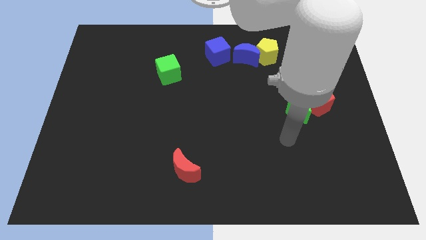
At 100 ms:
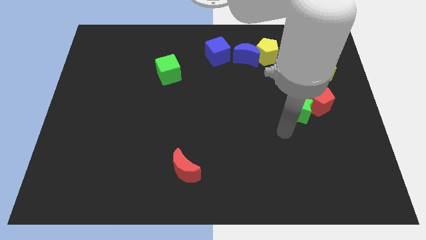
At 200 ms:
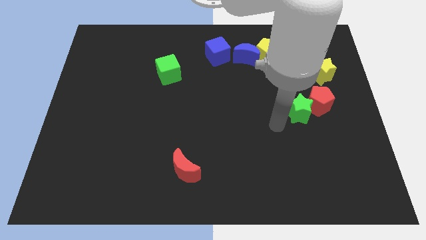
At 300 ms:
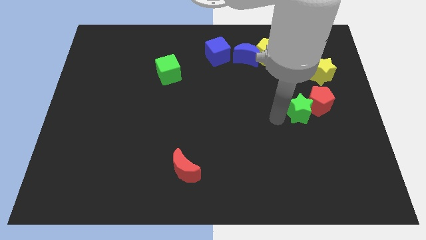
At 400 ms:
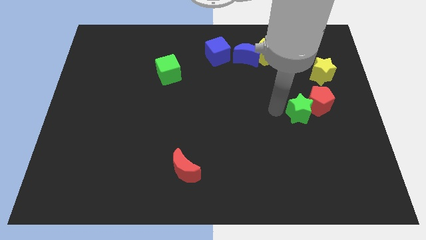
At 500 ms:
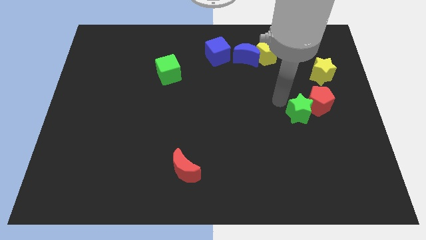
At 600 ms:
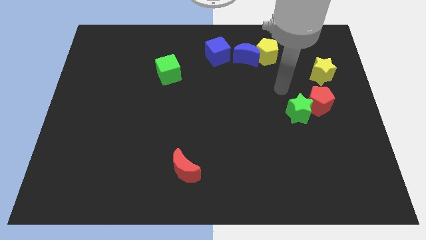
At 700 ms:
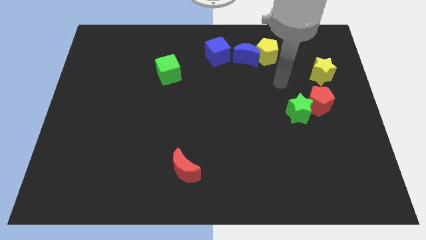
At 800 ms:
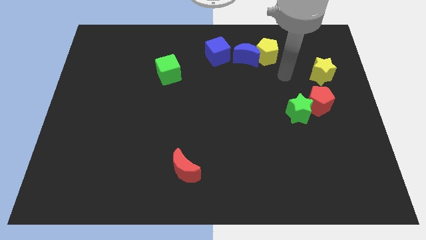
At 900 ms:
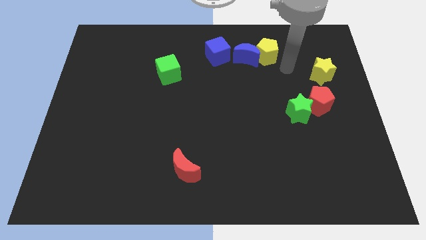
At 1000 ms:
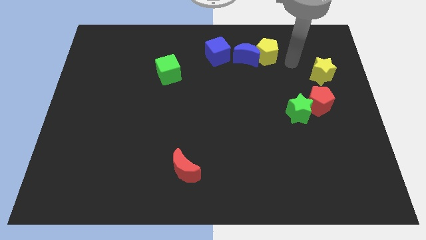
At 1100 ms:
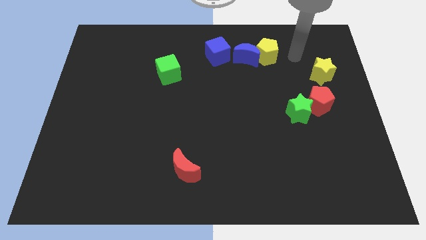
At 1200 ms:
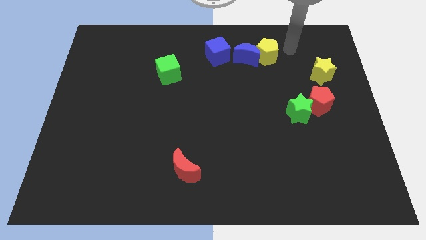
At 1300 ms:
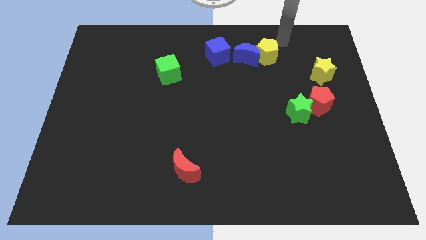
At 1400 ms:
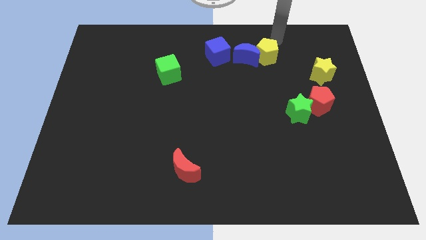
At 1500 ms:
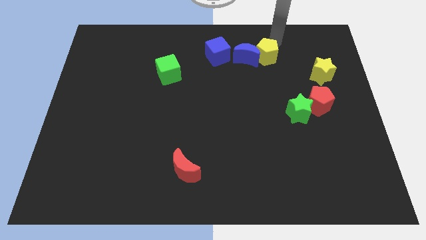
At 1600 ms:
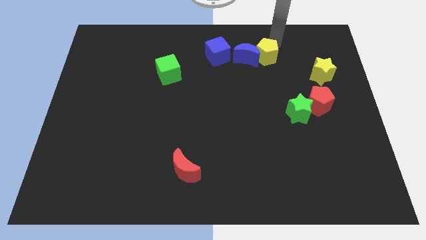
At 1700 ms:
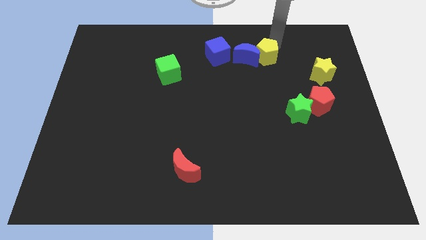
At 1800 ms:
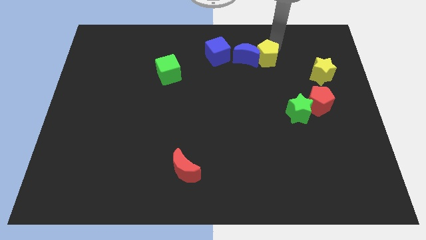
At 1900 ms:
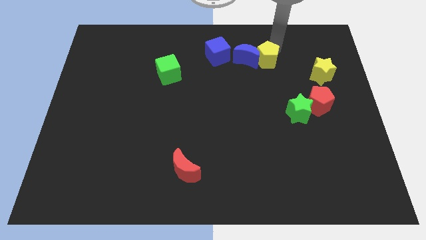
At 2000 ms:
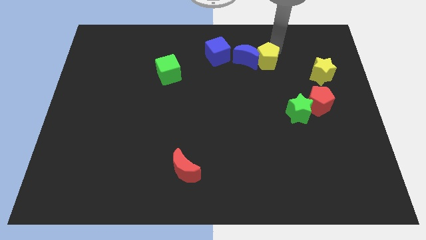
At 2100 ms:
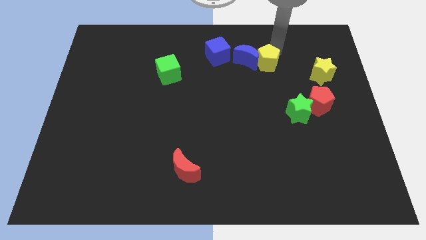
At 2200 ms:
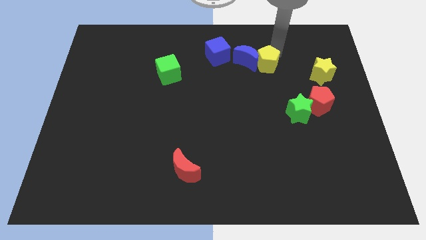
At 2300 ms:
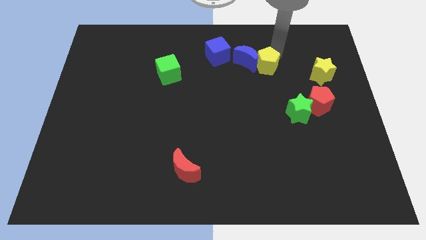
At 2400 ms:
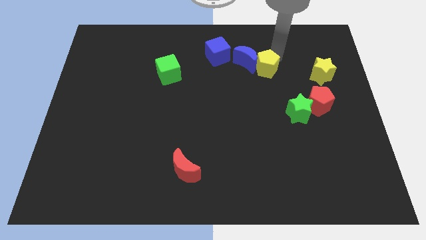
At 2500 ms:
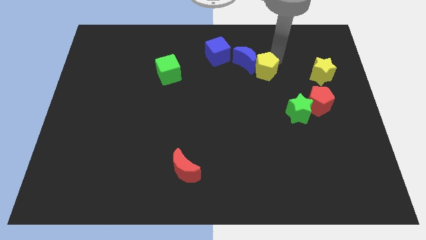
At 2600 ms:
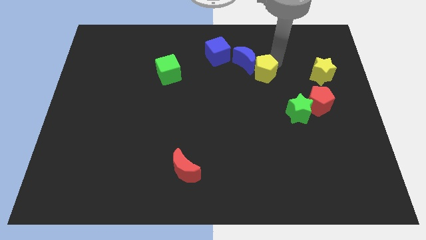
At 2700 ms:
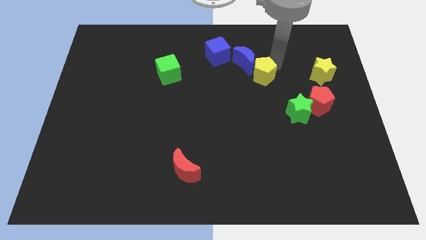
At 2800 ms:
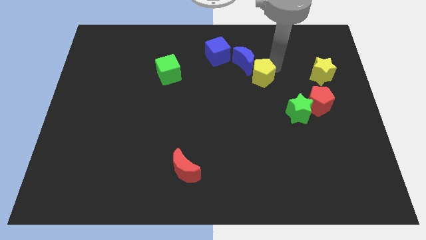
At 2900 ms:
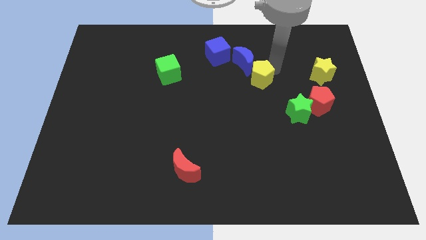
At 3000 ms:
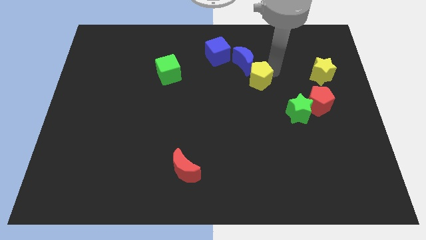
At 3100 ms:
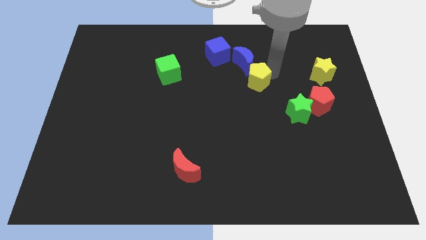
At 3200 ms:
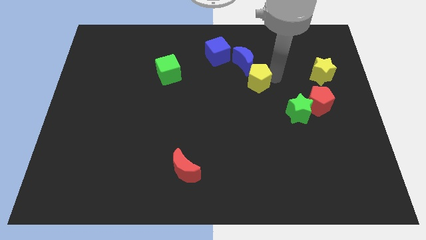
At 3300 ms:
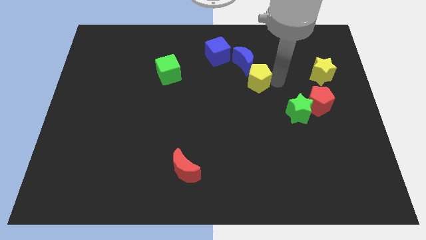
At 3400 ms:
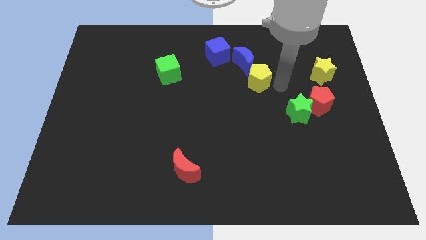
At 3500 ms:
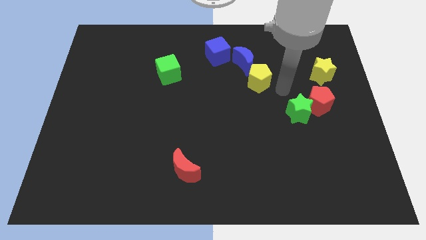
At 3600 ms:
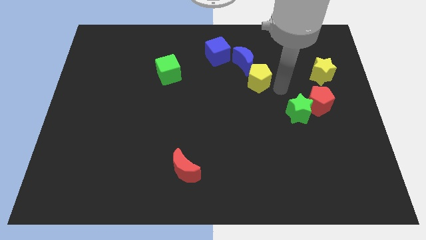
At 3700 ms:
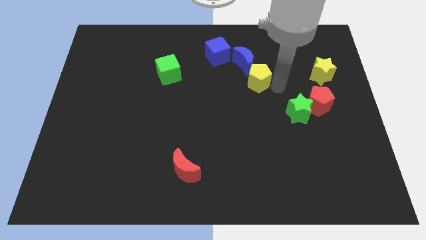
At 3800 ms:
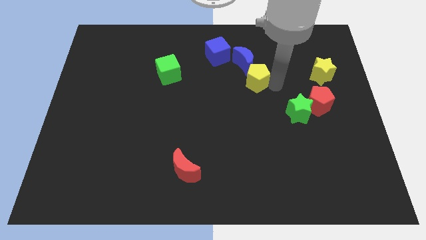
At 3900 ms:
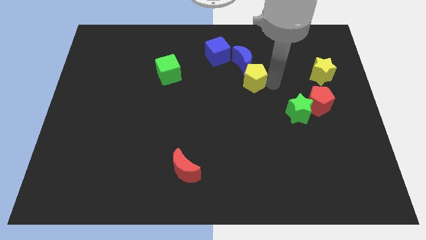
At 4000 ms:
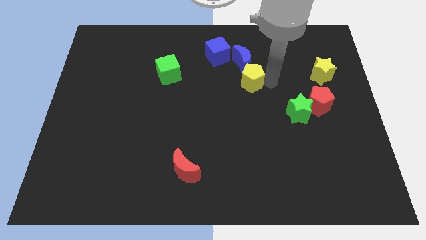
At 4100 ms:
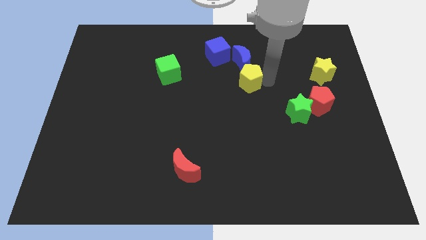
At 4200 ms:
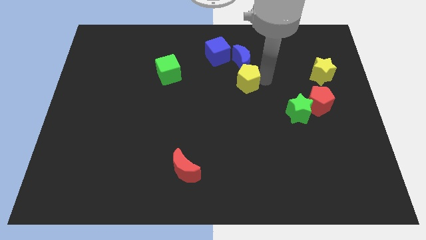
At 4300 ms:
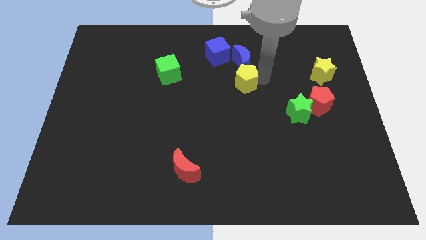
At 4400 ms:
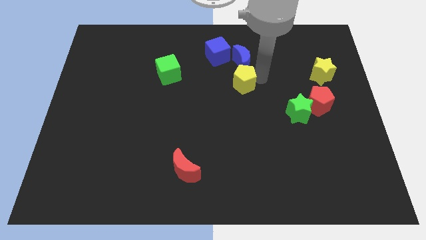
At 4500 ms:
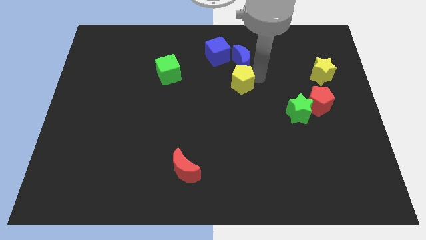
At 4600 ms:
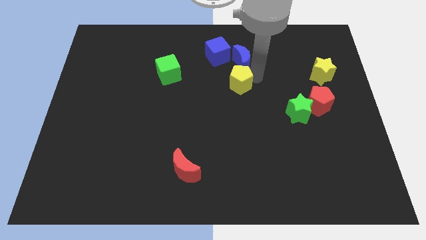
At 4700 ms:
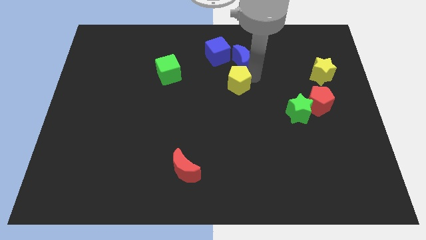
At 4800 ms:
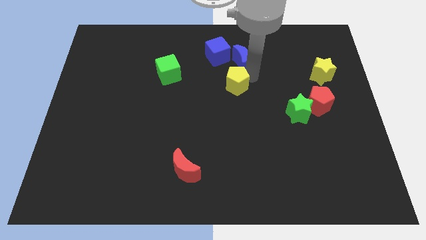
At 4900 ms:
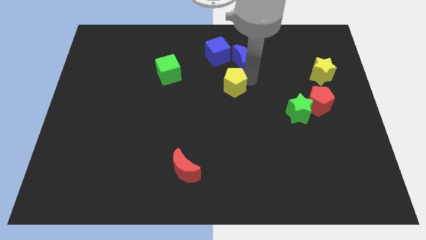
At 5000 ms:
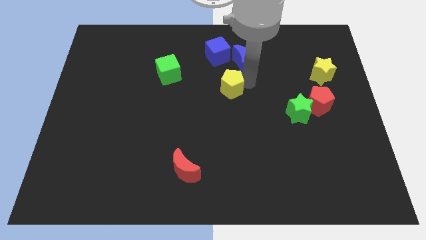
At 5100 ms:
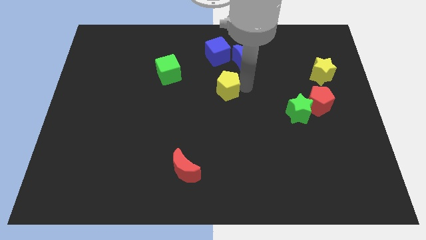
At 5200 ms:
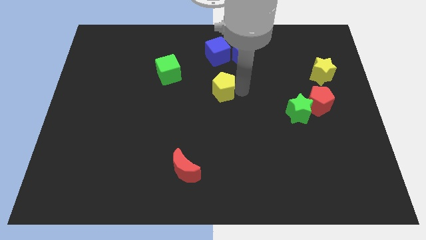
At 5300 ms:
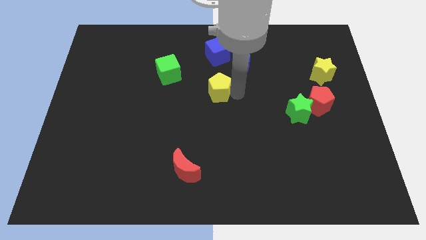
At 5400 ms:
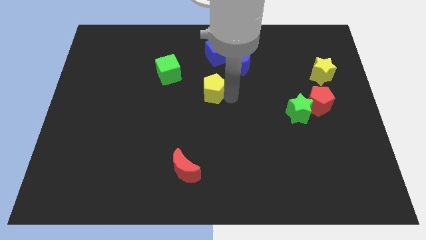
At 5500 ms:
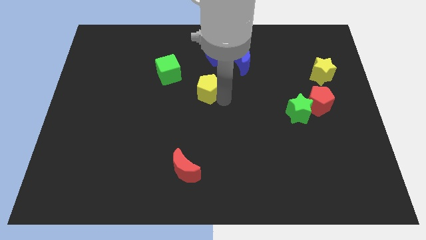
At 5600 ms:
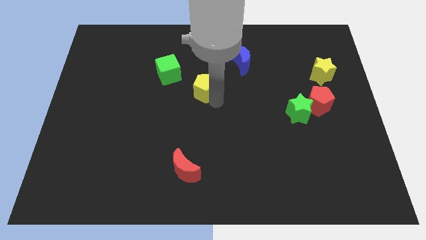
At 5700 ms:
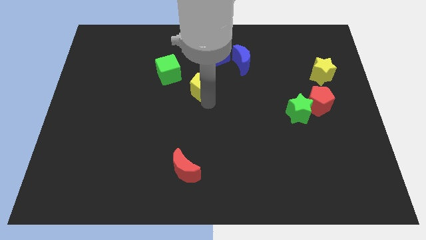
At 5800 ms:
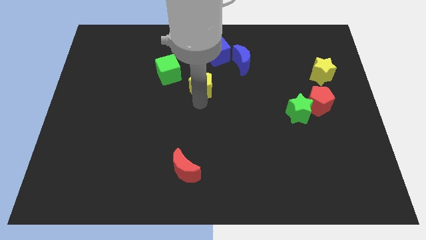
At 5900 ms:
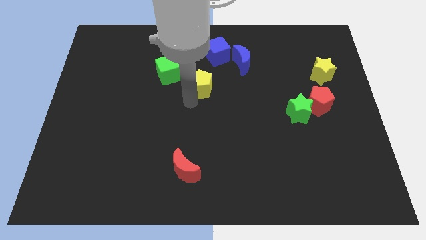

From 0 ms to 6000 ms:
slide the yellow pentagon right of the green cube

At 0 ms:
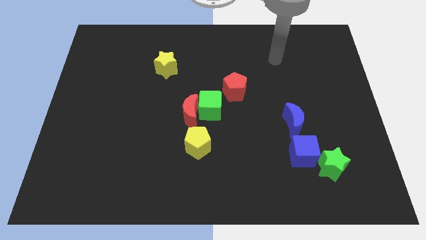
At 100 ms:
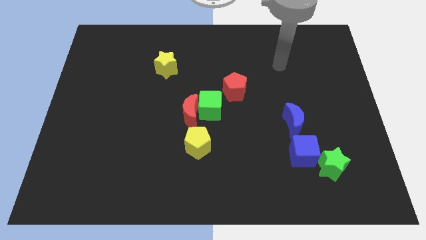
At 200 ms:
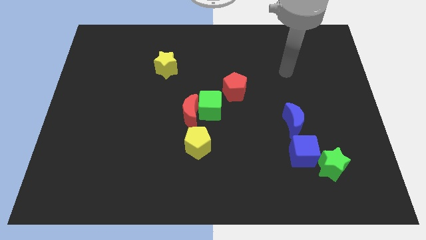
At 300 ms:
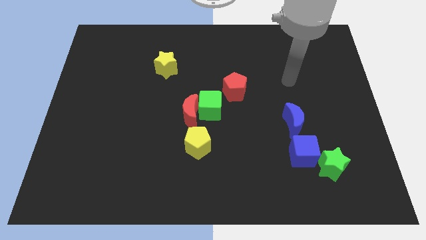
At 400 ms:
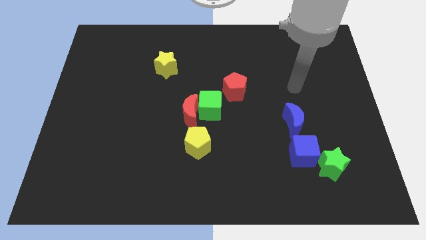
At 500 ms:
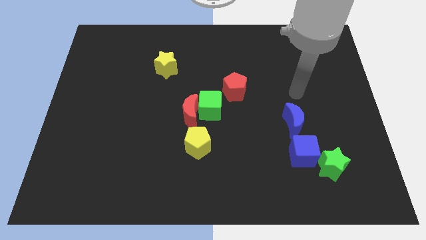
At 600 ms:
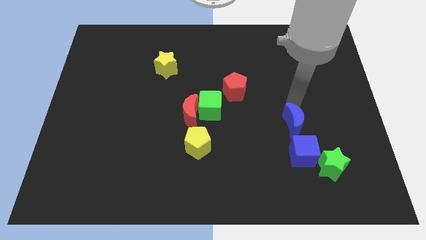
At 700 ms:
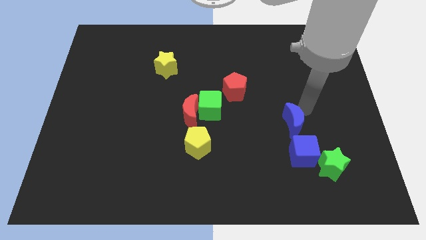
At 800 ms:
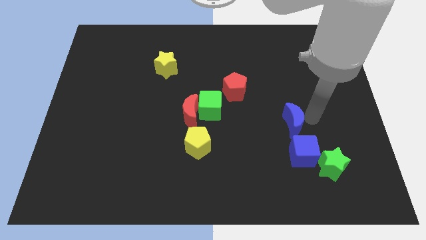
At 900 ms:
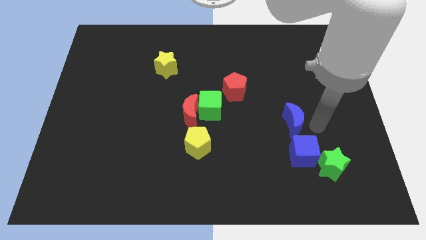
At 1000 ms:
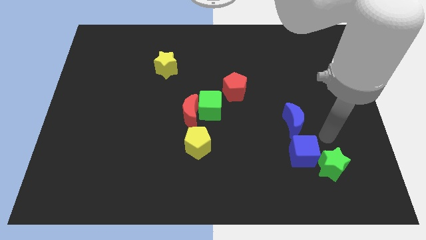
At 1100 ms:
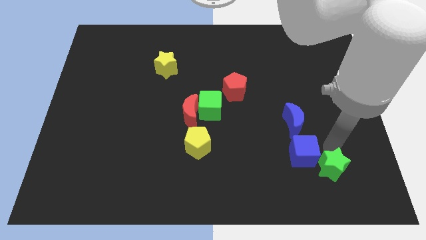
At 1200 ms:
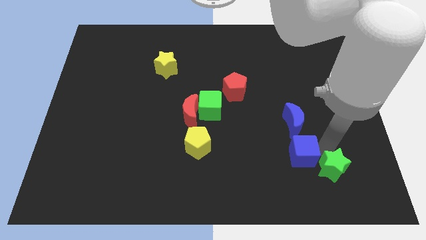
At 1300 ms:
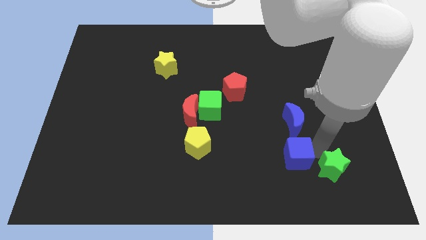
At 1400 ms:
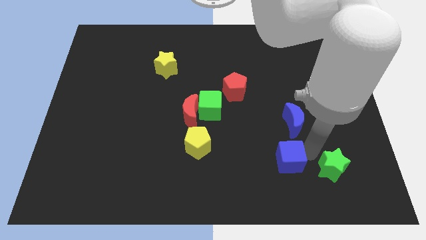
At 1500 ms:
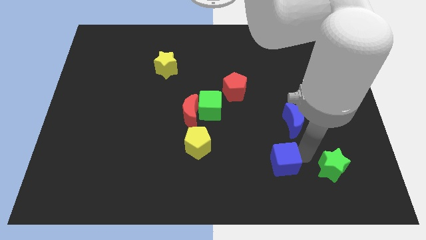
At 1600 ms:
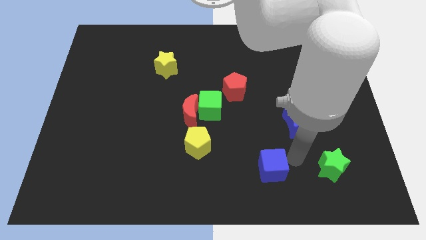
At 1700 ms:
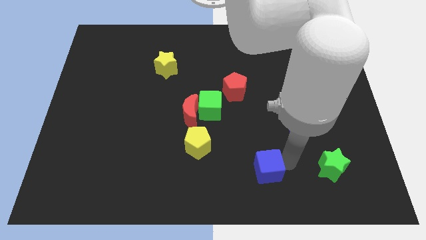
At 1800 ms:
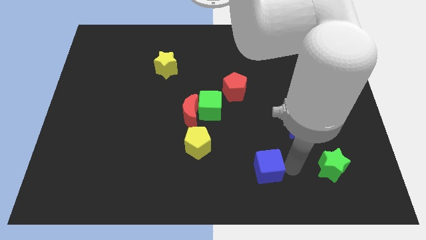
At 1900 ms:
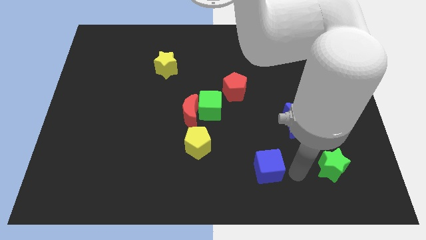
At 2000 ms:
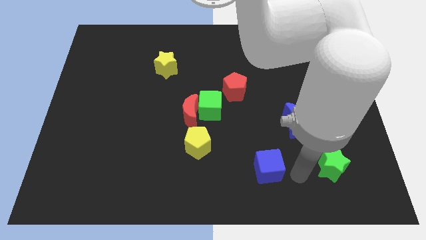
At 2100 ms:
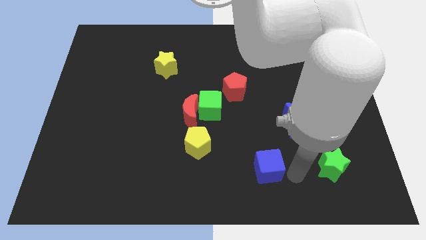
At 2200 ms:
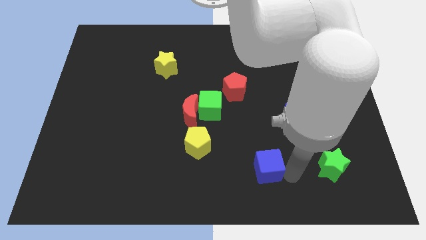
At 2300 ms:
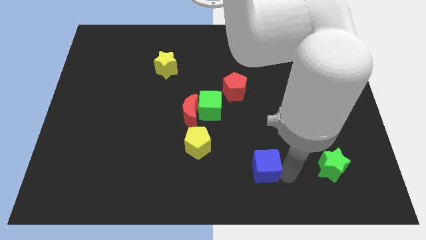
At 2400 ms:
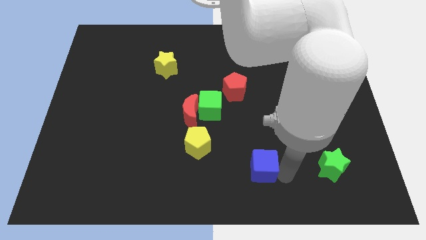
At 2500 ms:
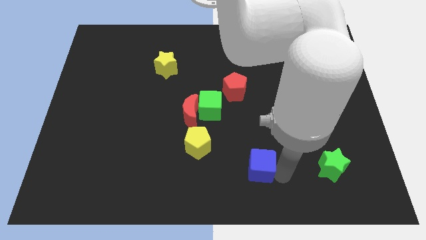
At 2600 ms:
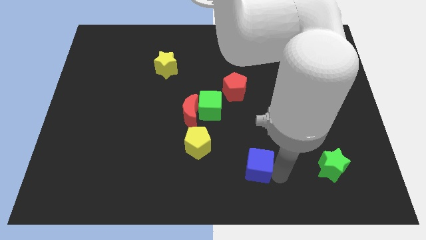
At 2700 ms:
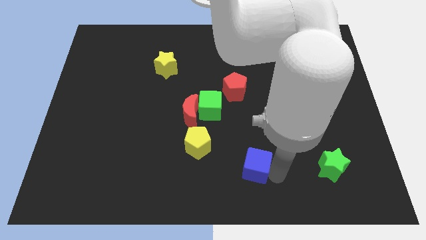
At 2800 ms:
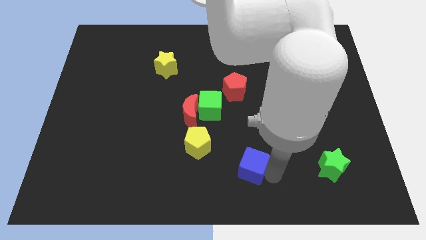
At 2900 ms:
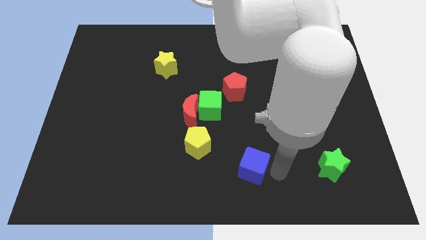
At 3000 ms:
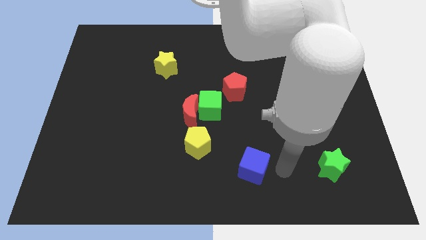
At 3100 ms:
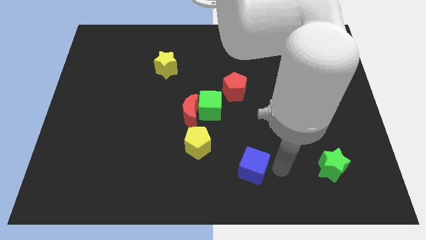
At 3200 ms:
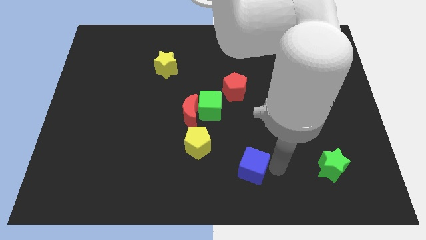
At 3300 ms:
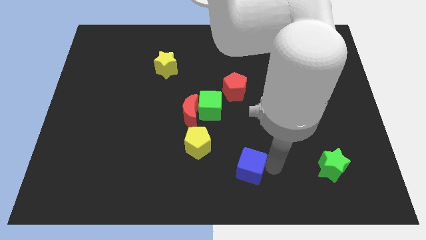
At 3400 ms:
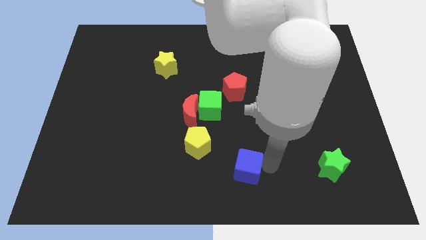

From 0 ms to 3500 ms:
slide the blue cube to the bottom right side of the yellow pentagon
